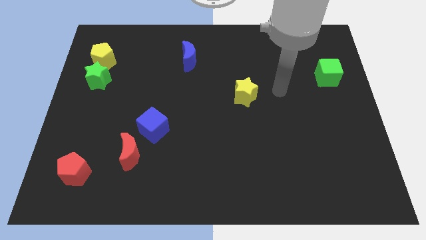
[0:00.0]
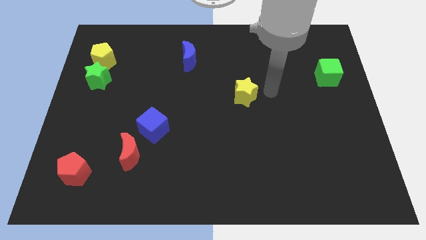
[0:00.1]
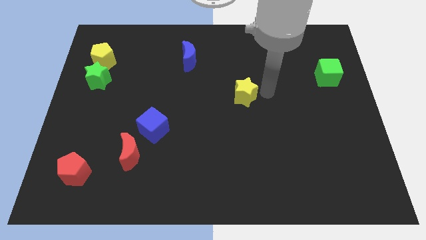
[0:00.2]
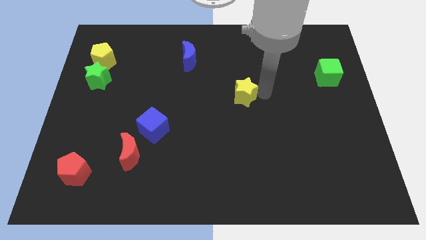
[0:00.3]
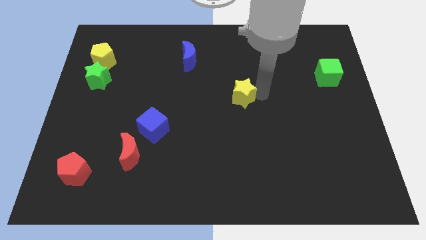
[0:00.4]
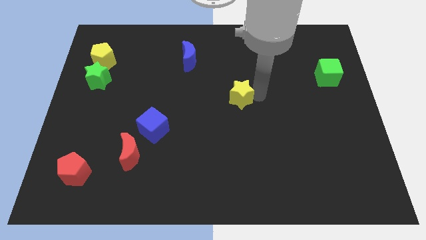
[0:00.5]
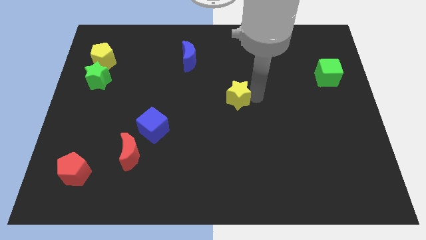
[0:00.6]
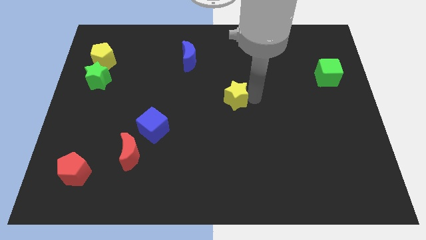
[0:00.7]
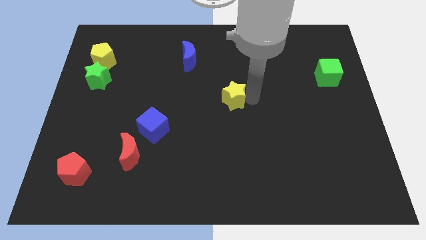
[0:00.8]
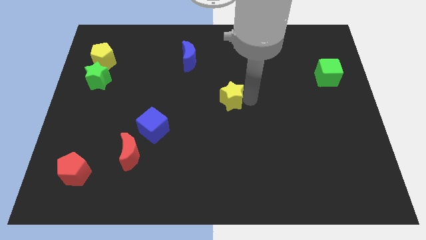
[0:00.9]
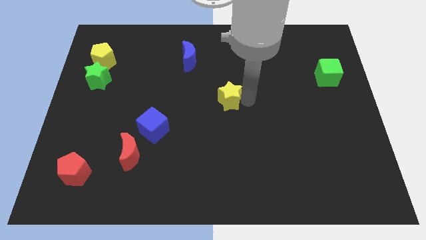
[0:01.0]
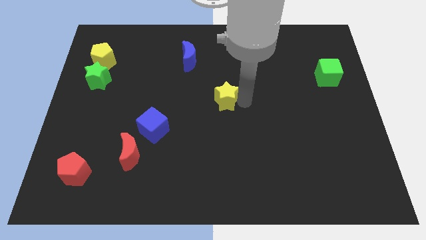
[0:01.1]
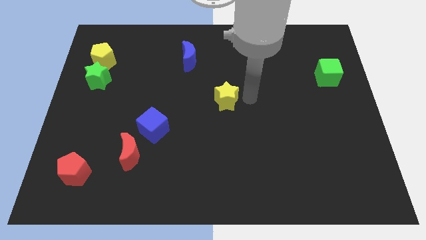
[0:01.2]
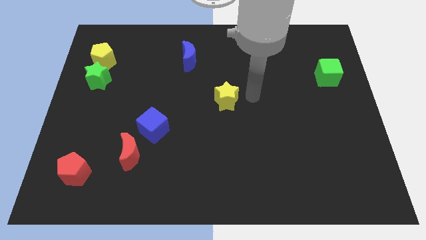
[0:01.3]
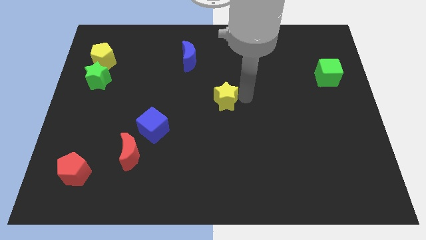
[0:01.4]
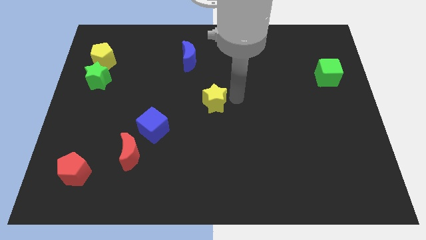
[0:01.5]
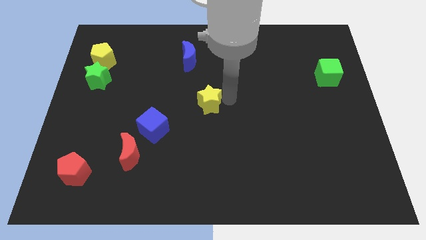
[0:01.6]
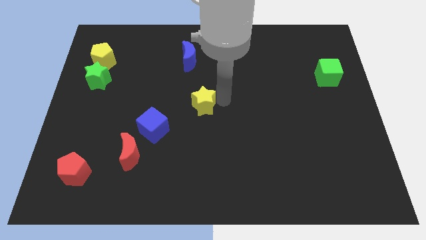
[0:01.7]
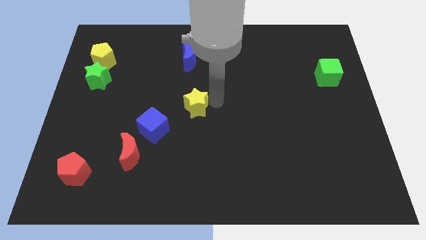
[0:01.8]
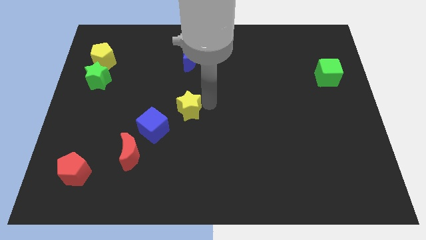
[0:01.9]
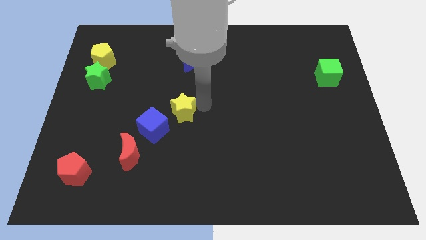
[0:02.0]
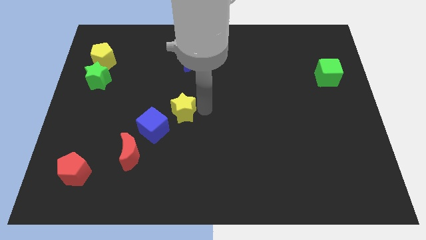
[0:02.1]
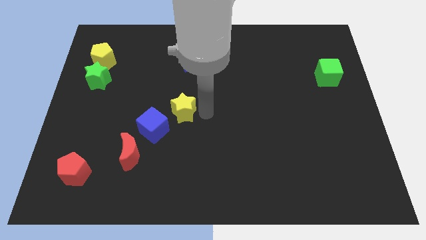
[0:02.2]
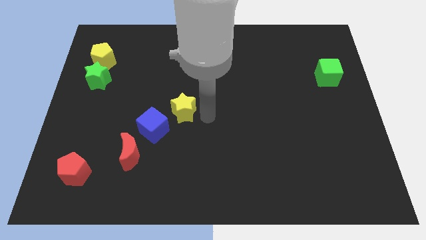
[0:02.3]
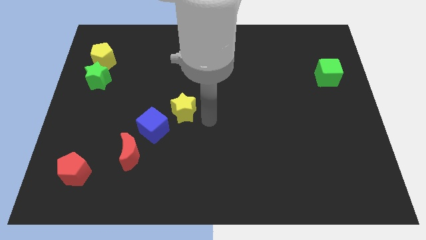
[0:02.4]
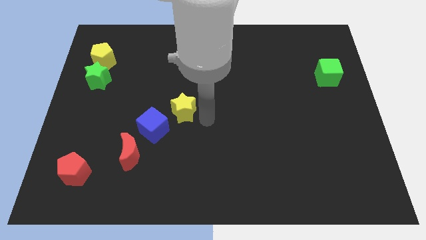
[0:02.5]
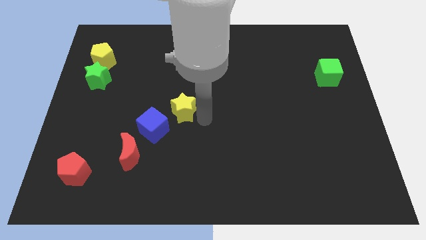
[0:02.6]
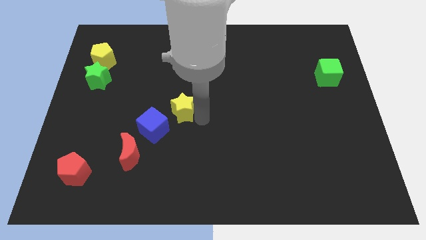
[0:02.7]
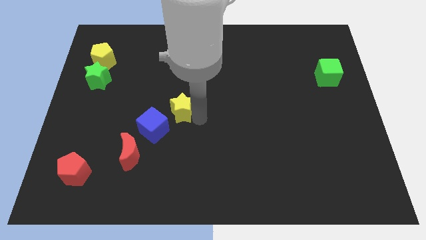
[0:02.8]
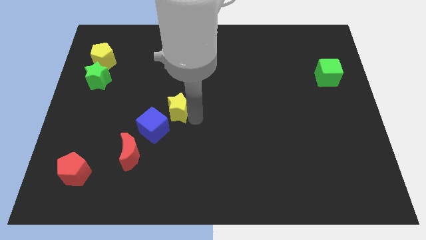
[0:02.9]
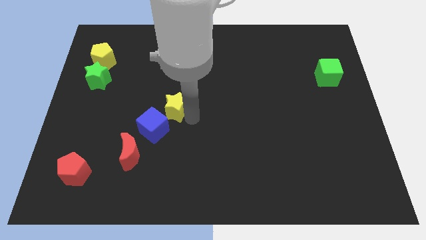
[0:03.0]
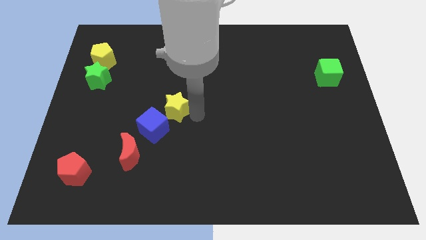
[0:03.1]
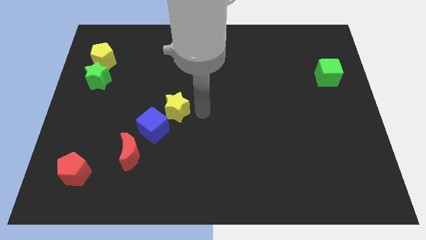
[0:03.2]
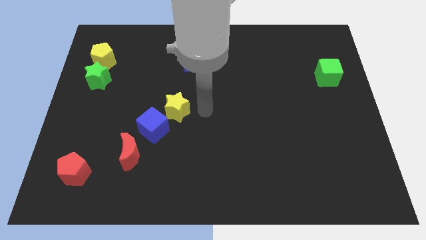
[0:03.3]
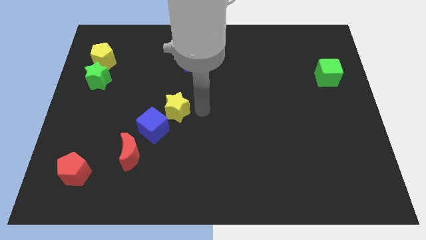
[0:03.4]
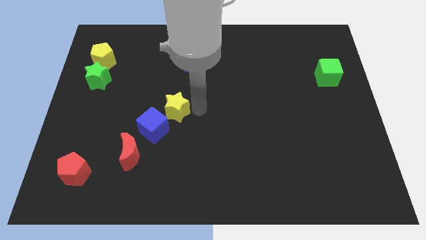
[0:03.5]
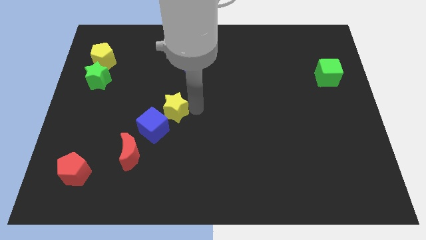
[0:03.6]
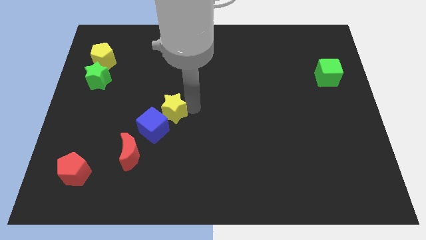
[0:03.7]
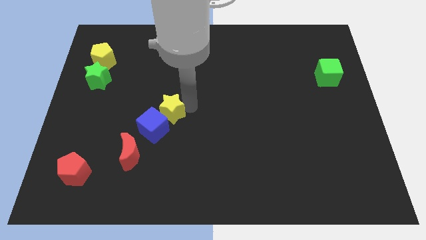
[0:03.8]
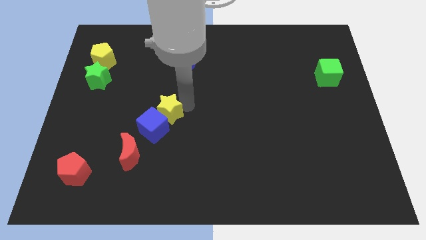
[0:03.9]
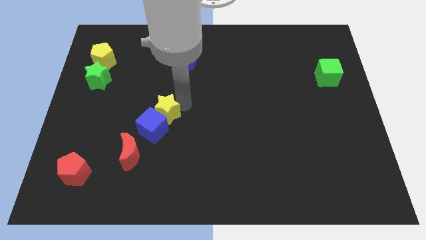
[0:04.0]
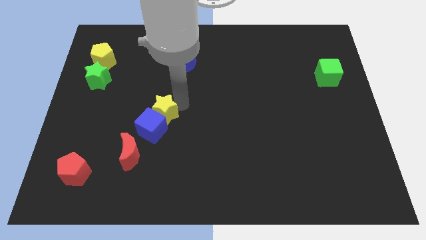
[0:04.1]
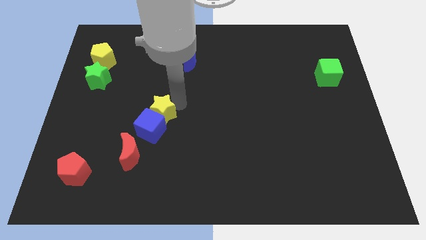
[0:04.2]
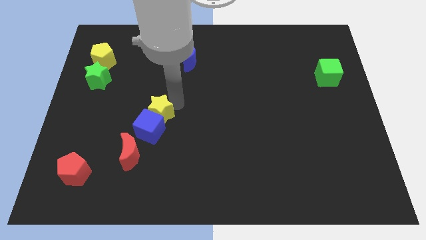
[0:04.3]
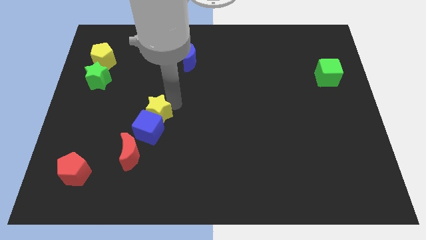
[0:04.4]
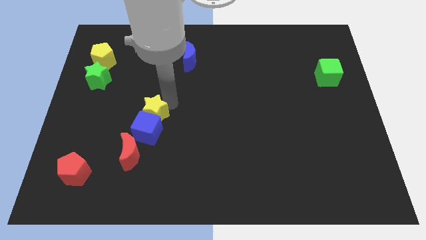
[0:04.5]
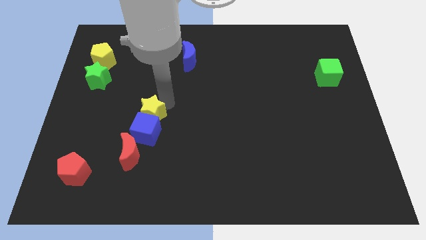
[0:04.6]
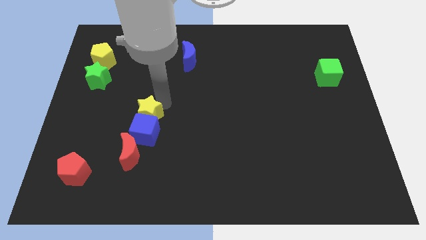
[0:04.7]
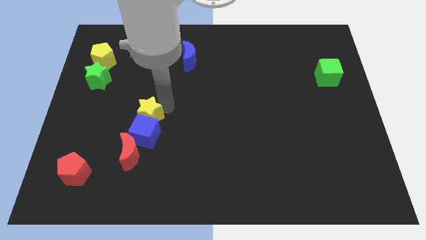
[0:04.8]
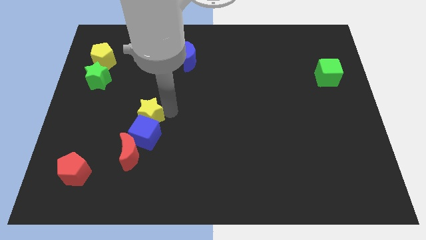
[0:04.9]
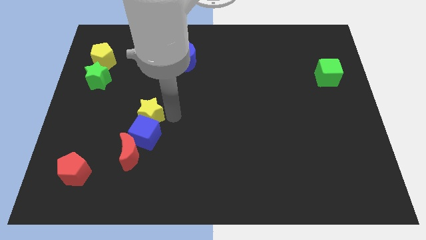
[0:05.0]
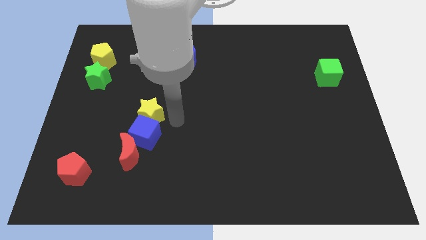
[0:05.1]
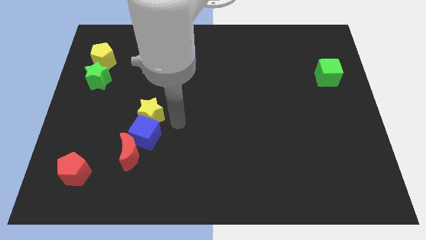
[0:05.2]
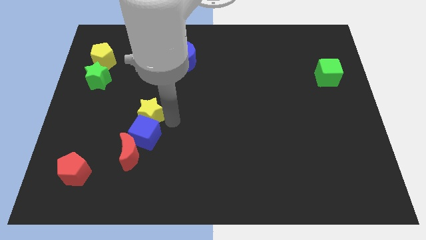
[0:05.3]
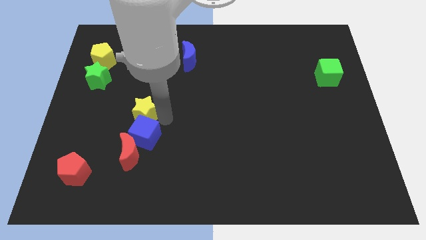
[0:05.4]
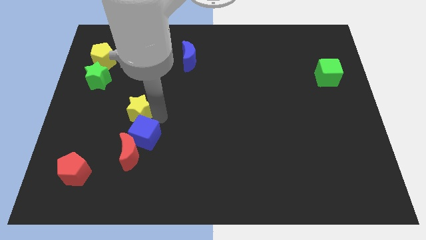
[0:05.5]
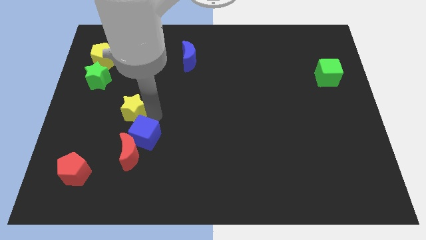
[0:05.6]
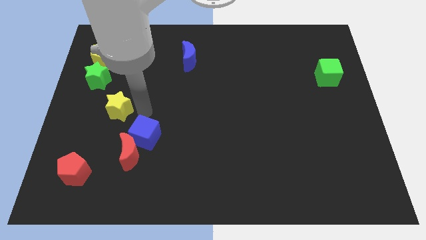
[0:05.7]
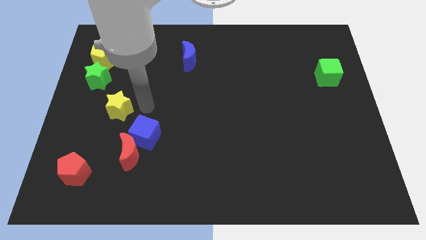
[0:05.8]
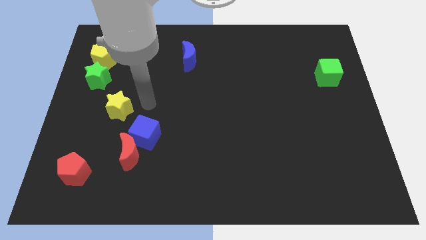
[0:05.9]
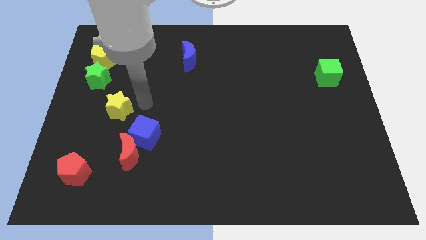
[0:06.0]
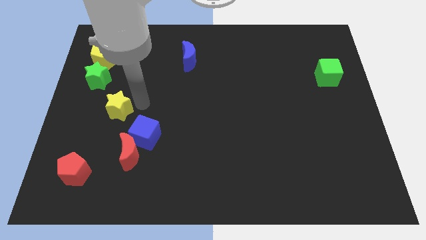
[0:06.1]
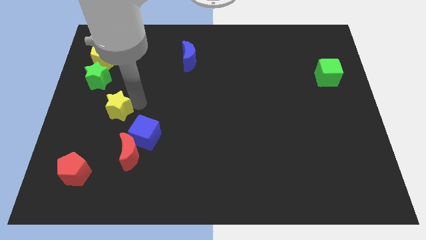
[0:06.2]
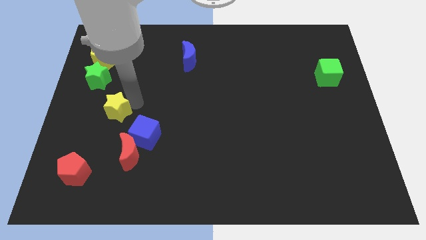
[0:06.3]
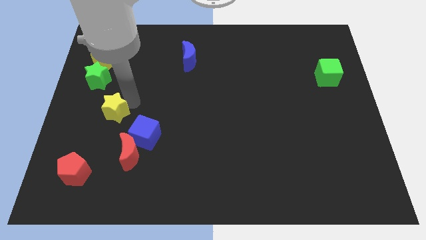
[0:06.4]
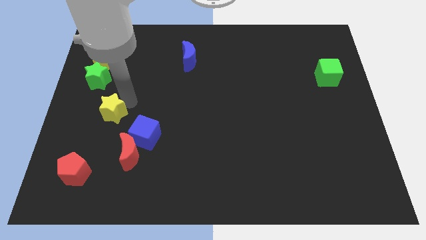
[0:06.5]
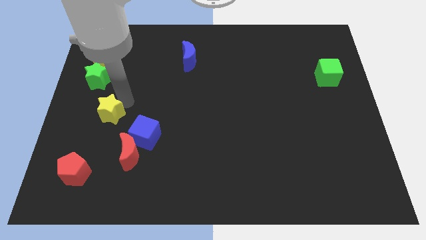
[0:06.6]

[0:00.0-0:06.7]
move the yellow star to the bottom side of the green star
